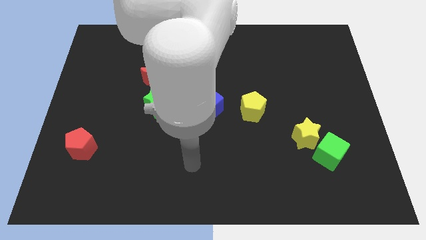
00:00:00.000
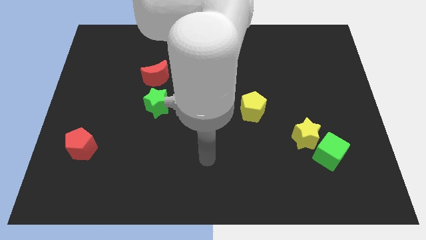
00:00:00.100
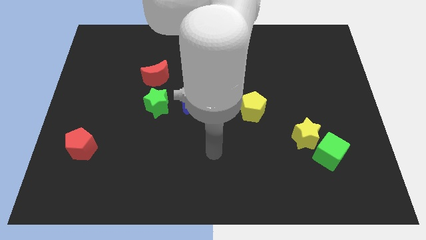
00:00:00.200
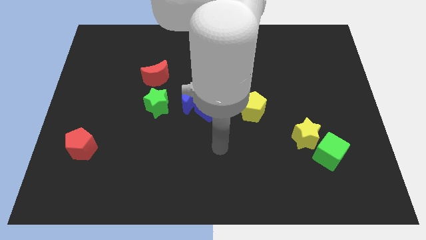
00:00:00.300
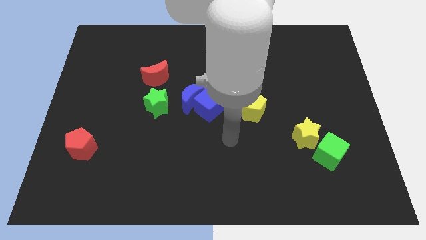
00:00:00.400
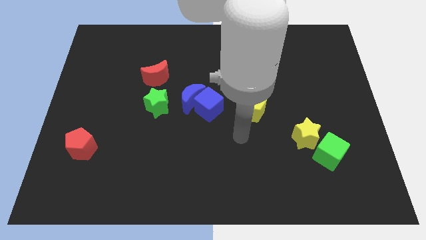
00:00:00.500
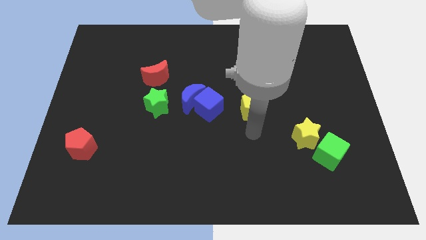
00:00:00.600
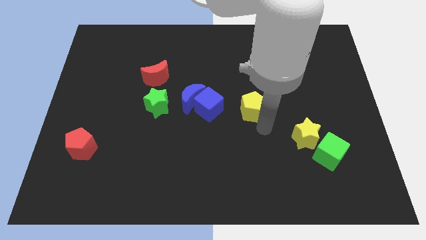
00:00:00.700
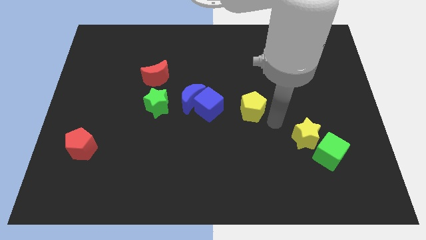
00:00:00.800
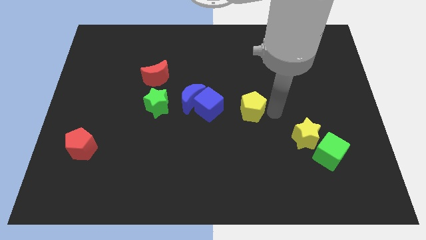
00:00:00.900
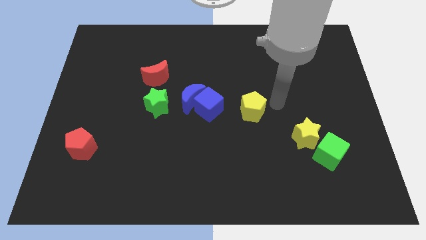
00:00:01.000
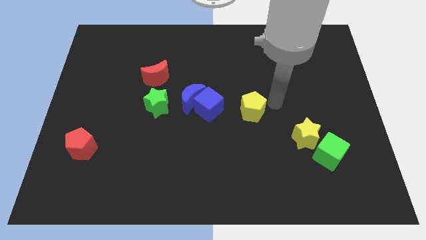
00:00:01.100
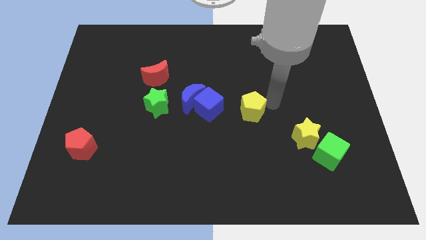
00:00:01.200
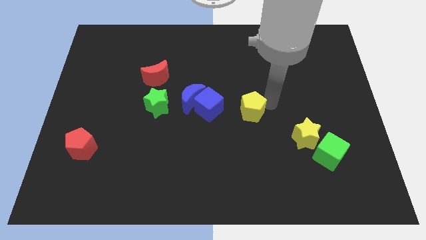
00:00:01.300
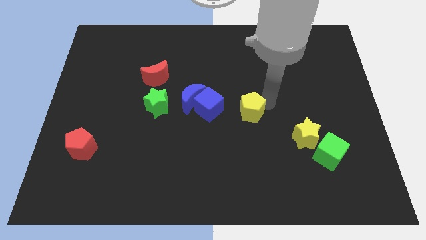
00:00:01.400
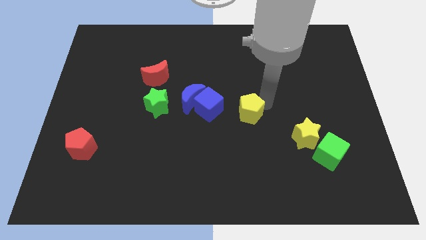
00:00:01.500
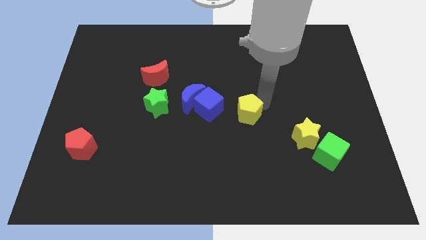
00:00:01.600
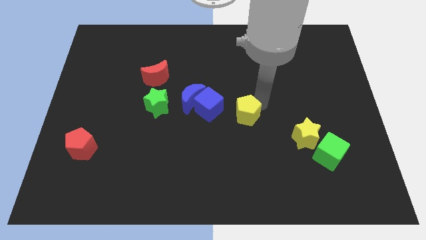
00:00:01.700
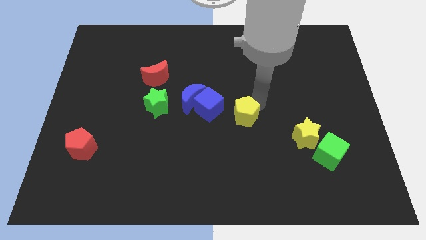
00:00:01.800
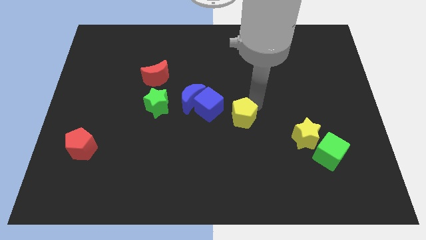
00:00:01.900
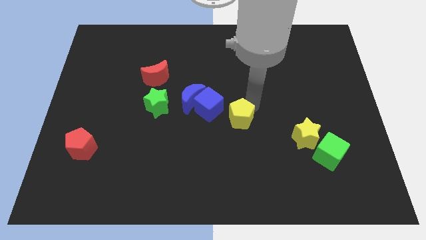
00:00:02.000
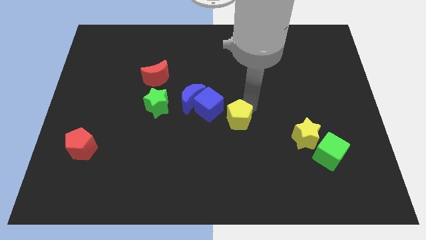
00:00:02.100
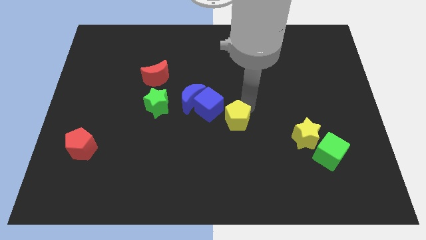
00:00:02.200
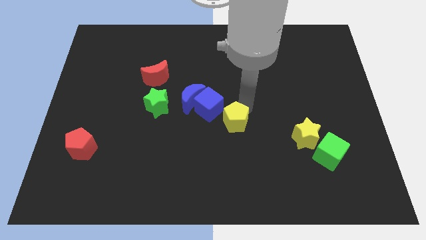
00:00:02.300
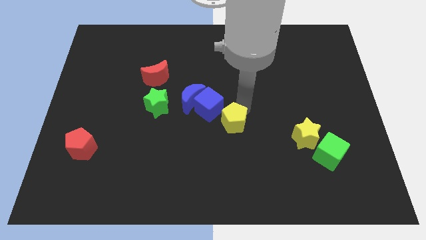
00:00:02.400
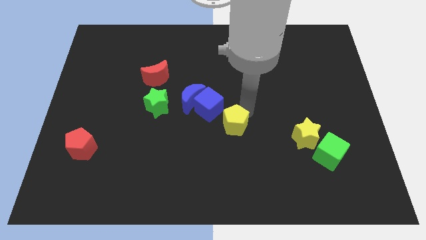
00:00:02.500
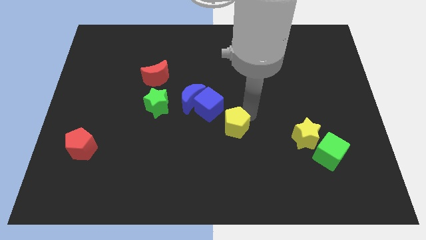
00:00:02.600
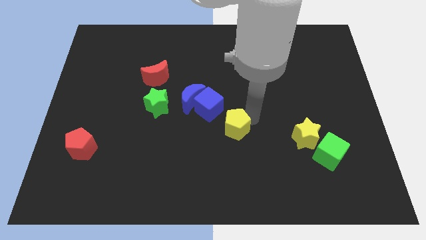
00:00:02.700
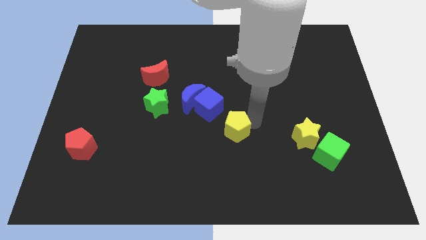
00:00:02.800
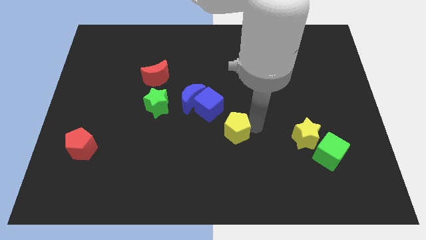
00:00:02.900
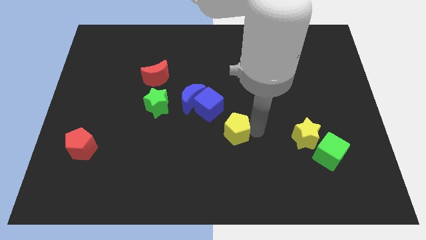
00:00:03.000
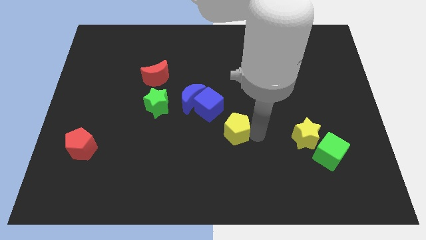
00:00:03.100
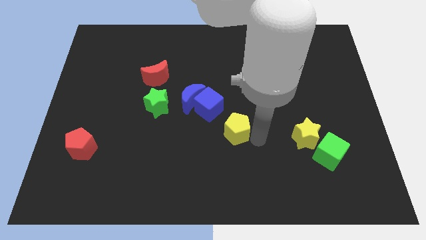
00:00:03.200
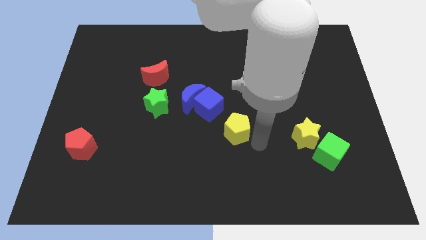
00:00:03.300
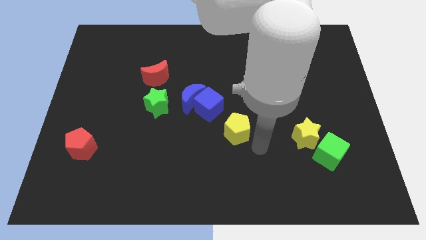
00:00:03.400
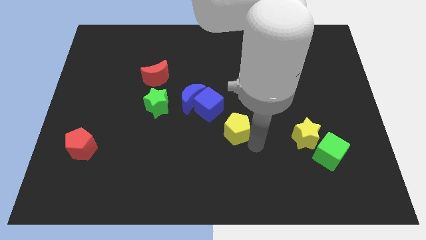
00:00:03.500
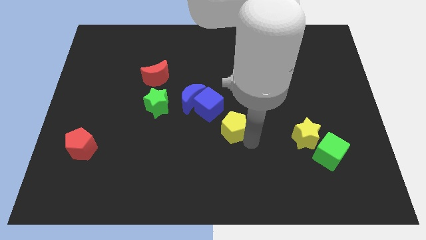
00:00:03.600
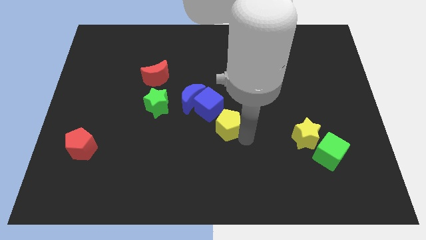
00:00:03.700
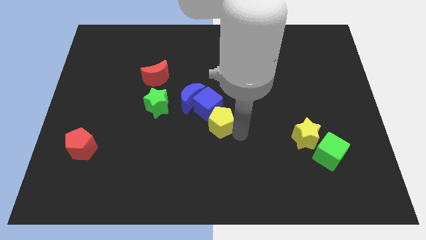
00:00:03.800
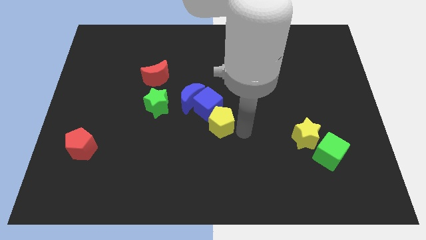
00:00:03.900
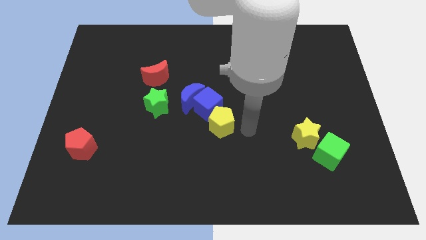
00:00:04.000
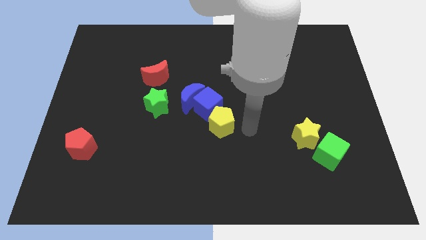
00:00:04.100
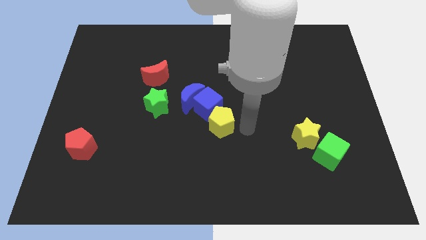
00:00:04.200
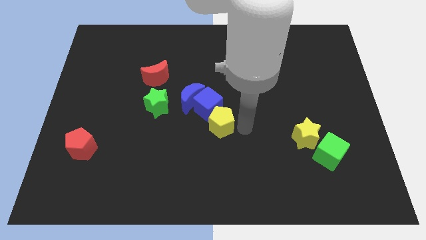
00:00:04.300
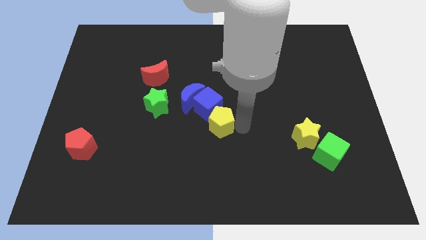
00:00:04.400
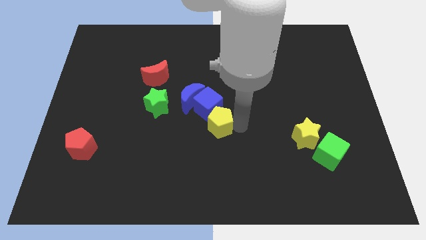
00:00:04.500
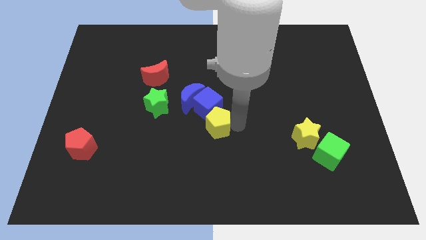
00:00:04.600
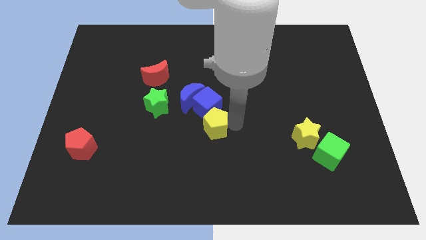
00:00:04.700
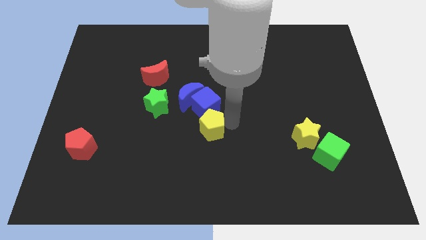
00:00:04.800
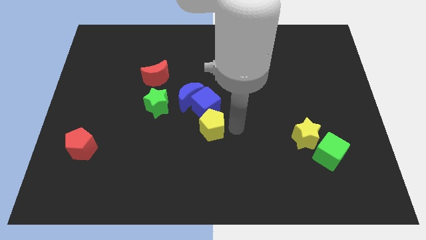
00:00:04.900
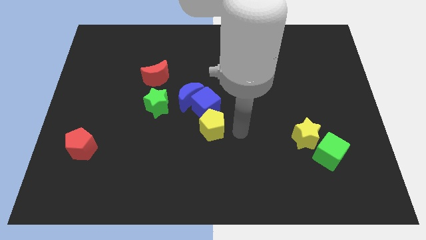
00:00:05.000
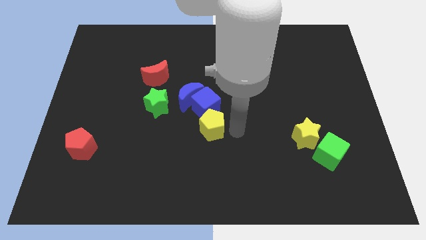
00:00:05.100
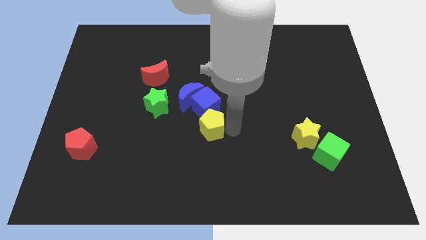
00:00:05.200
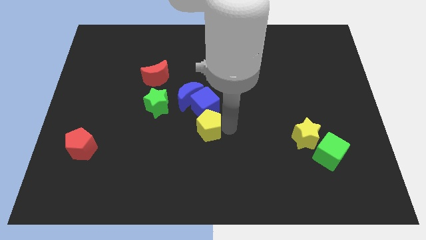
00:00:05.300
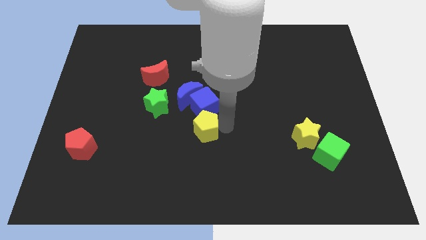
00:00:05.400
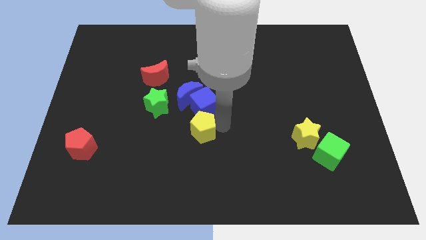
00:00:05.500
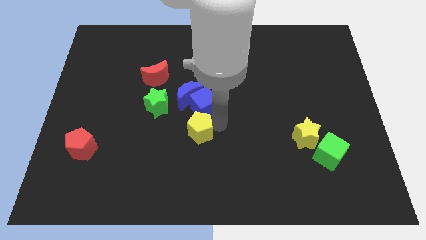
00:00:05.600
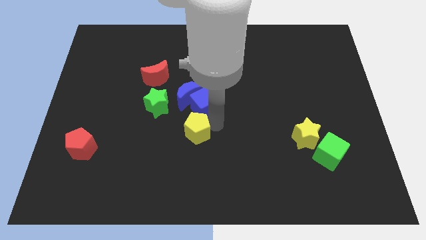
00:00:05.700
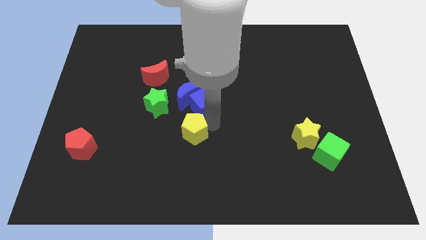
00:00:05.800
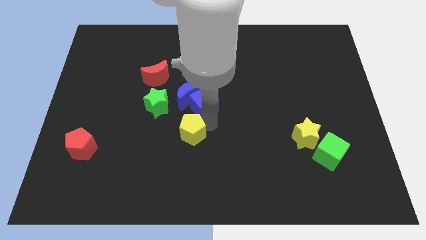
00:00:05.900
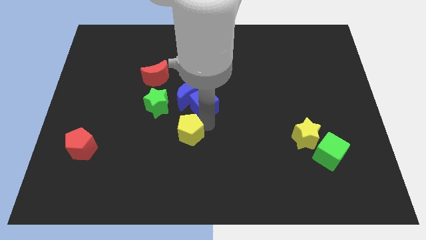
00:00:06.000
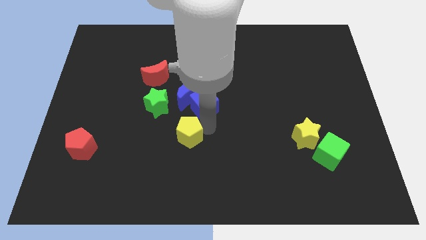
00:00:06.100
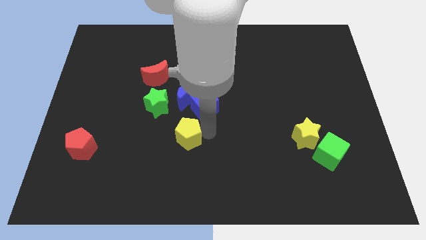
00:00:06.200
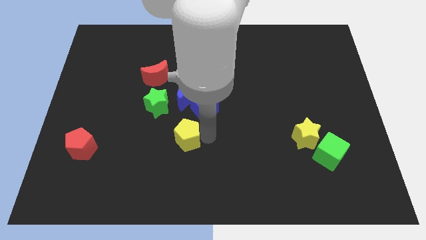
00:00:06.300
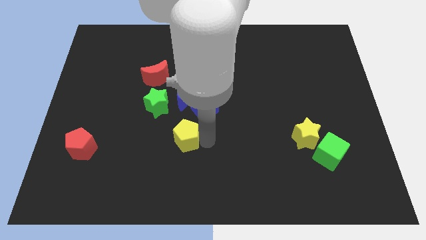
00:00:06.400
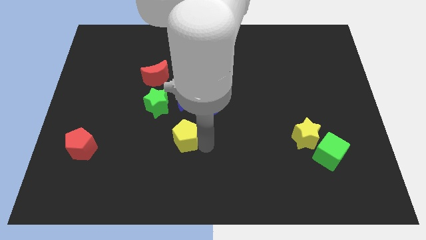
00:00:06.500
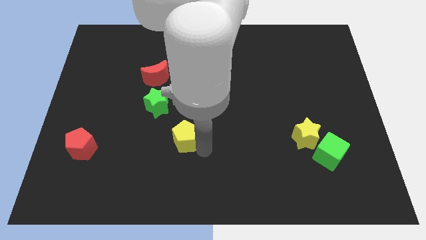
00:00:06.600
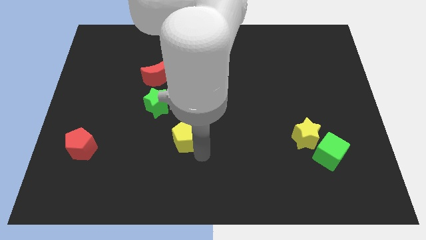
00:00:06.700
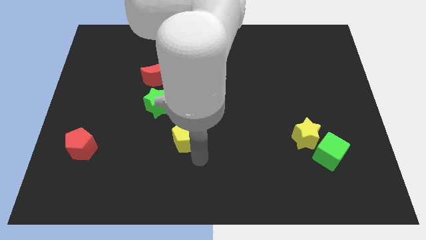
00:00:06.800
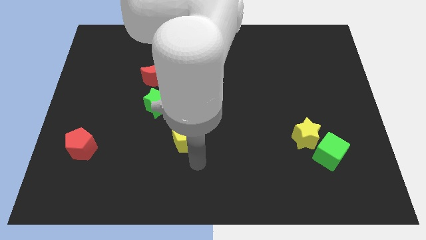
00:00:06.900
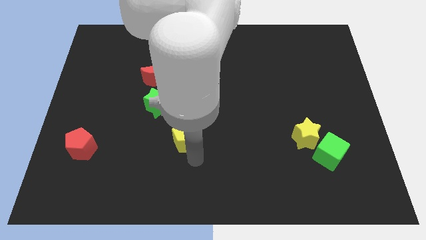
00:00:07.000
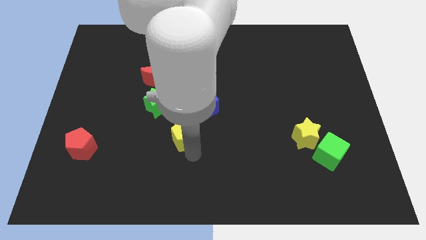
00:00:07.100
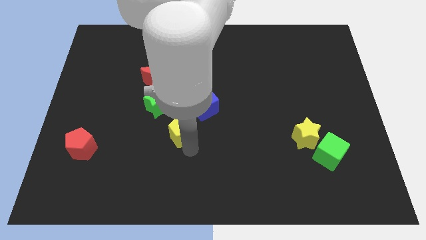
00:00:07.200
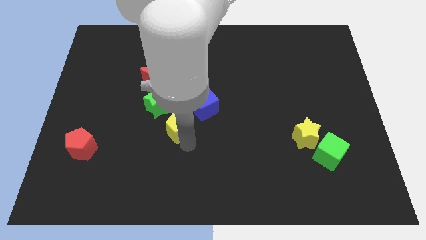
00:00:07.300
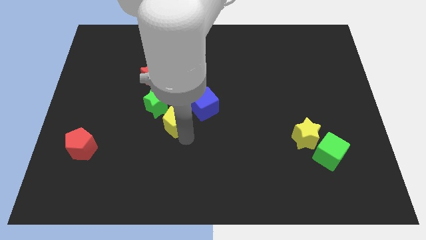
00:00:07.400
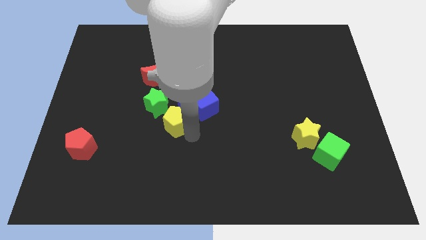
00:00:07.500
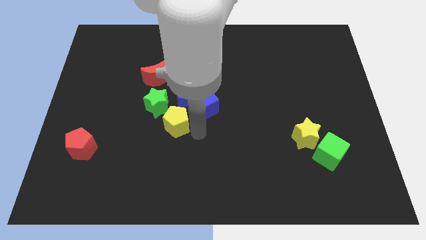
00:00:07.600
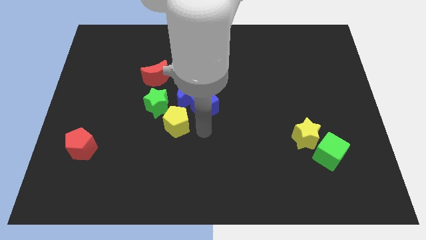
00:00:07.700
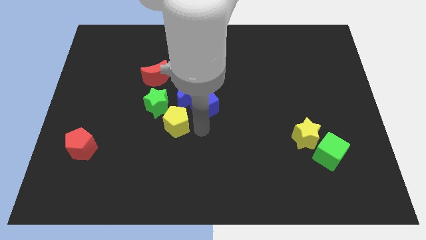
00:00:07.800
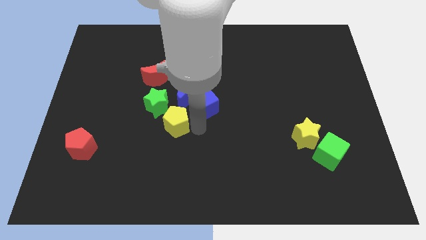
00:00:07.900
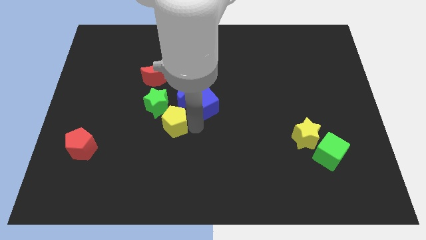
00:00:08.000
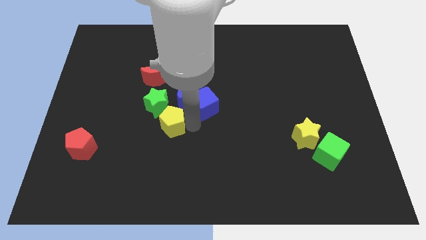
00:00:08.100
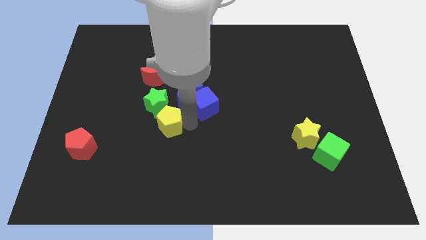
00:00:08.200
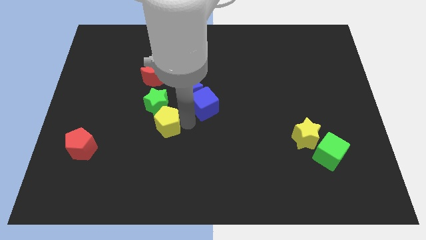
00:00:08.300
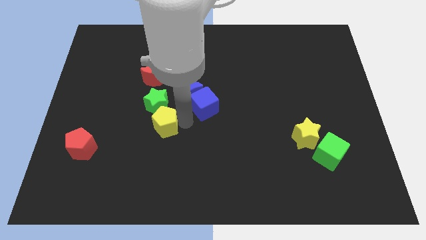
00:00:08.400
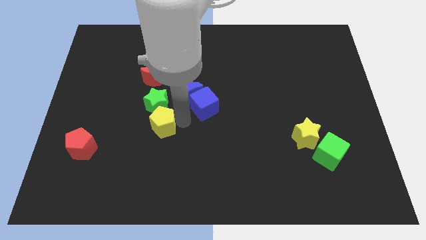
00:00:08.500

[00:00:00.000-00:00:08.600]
slide the yellow pentagon to the left

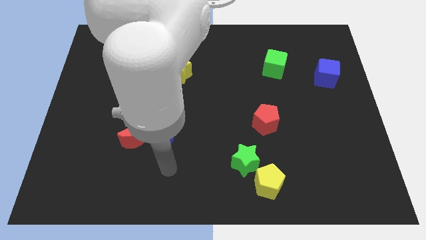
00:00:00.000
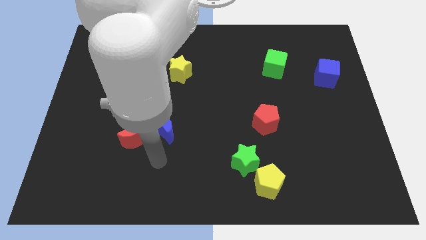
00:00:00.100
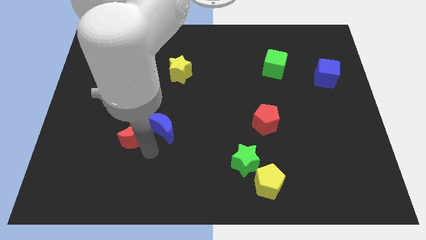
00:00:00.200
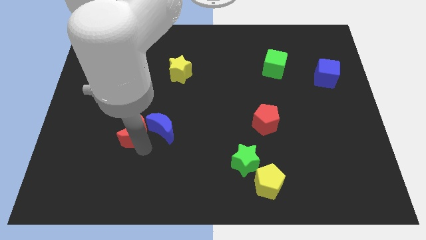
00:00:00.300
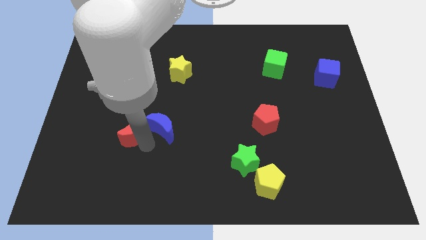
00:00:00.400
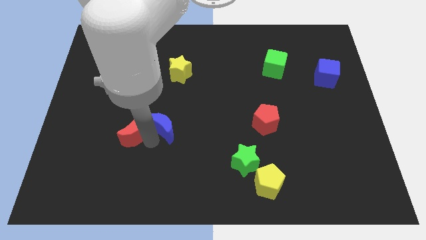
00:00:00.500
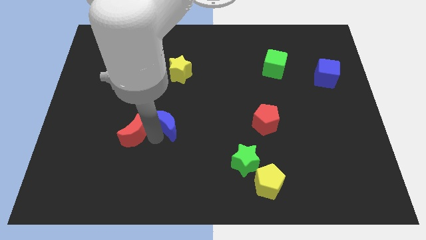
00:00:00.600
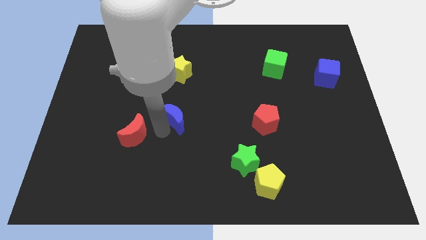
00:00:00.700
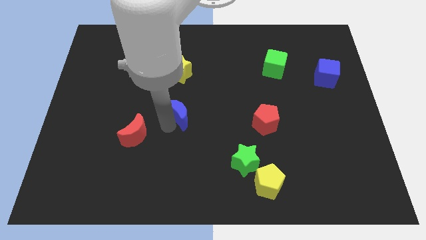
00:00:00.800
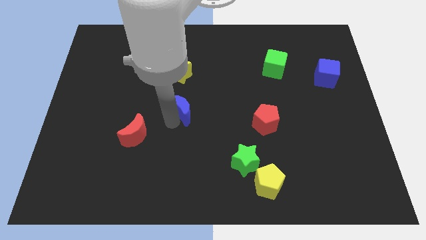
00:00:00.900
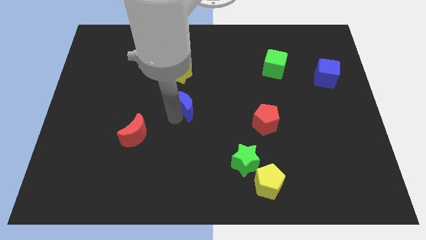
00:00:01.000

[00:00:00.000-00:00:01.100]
move the blue moon a little diagonally upwards and right
